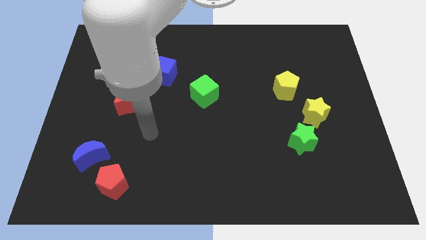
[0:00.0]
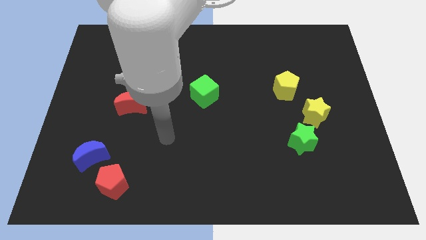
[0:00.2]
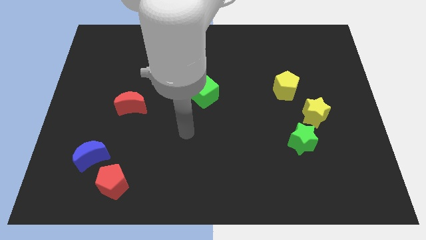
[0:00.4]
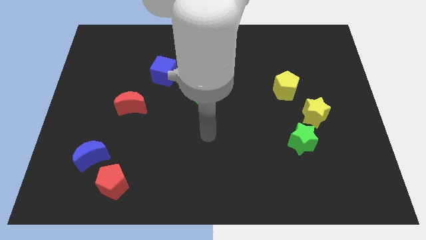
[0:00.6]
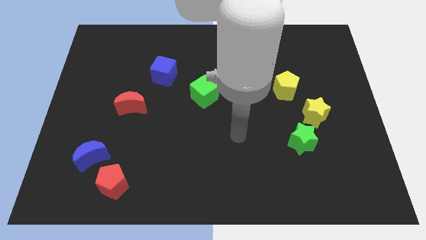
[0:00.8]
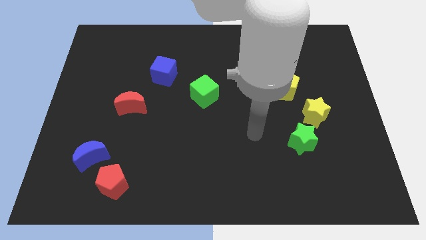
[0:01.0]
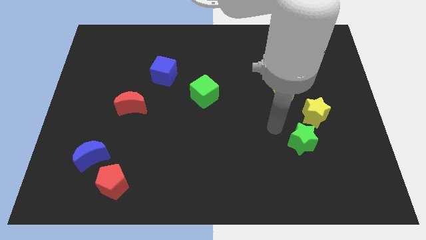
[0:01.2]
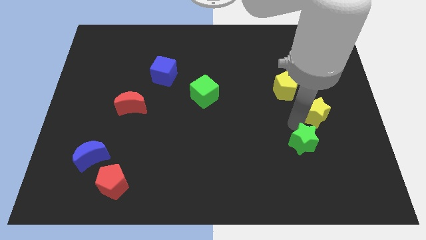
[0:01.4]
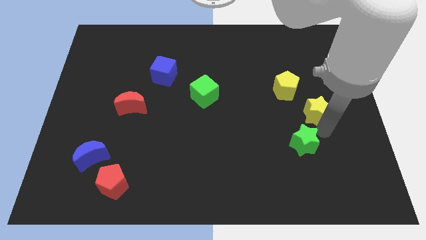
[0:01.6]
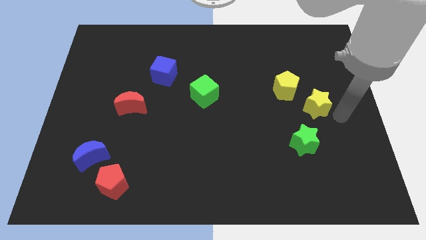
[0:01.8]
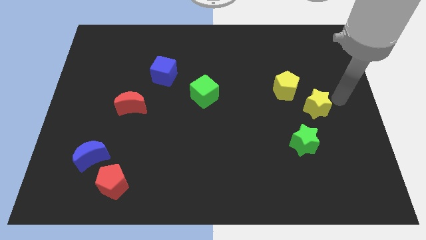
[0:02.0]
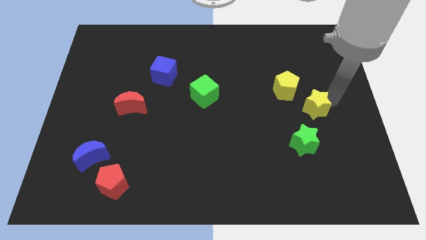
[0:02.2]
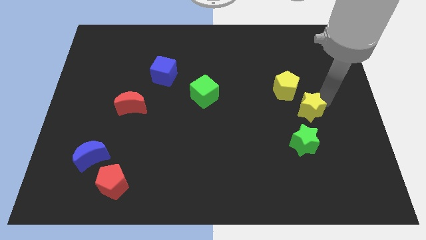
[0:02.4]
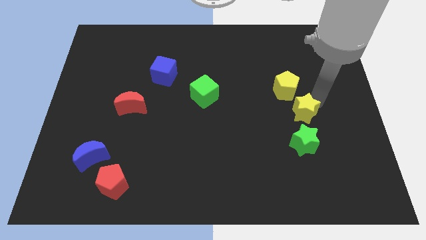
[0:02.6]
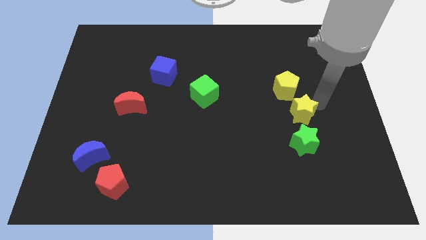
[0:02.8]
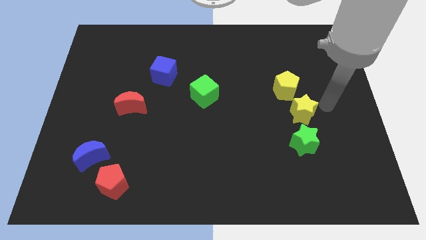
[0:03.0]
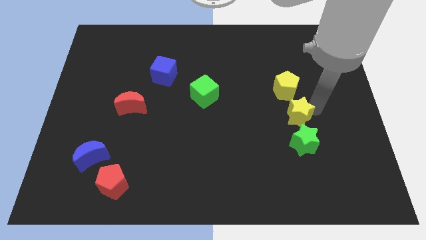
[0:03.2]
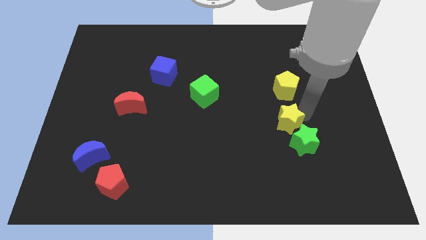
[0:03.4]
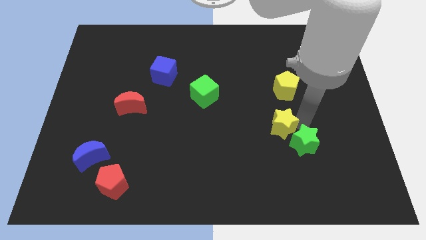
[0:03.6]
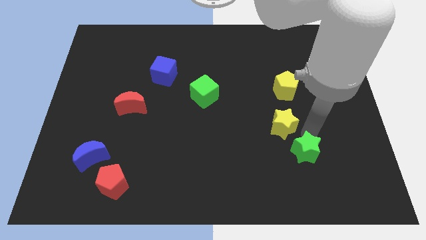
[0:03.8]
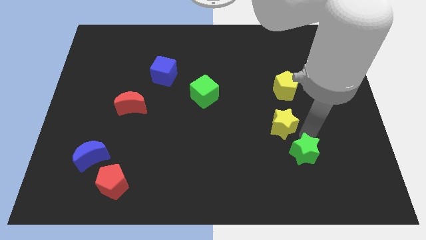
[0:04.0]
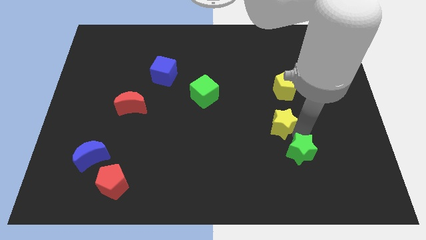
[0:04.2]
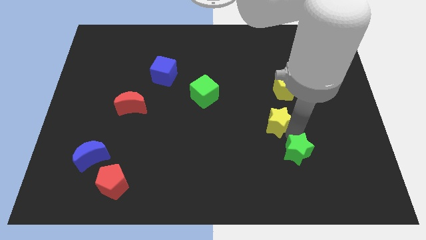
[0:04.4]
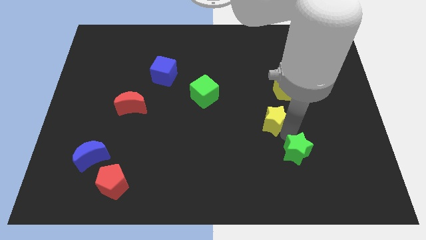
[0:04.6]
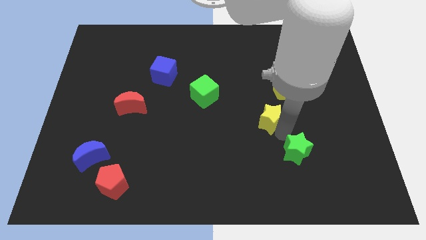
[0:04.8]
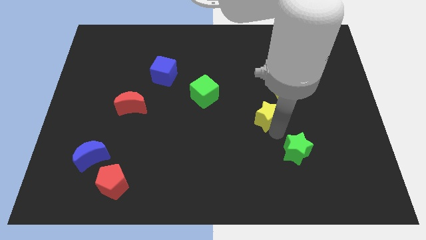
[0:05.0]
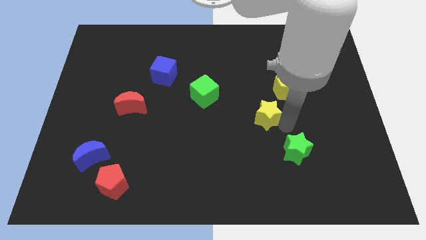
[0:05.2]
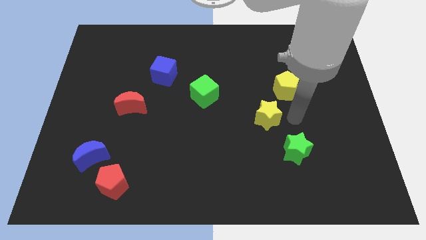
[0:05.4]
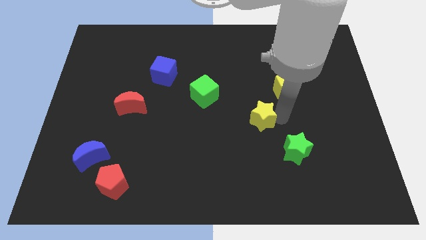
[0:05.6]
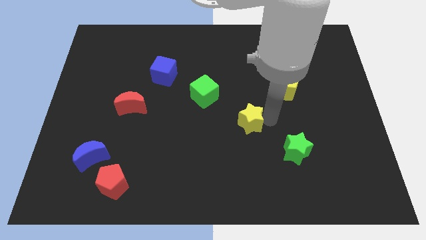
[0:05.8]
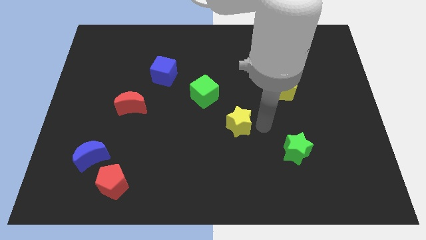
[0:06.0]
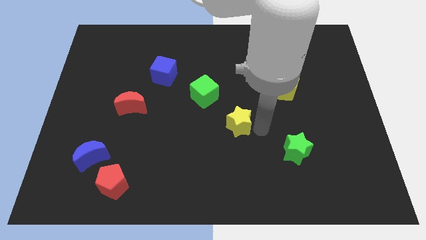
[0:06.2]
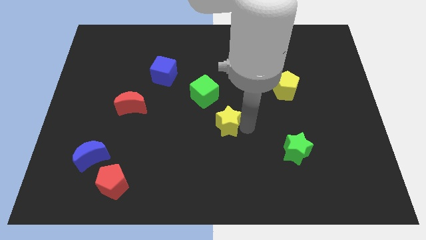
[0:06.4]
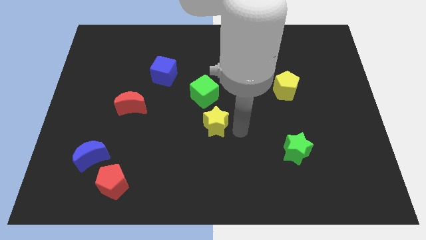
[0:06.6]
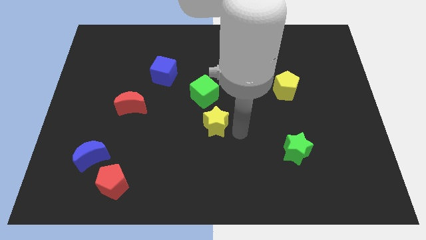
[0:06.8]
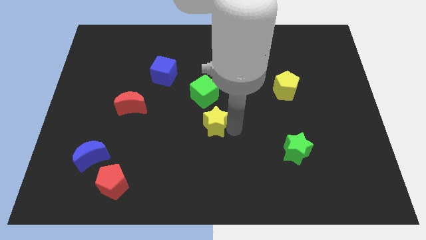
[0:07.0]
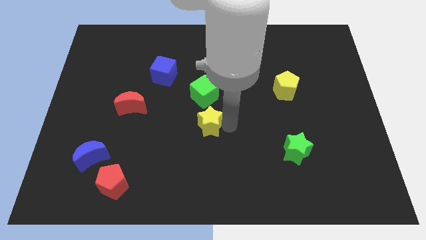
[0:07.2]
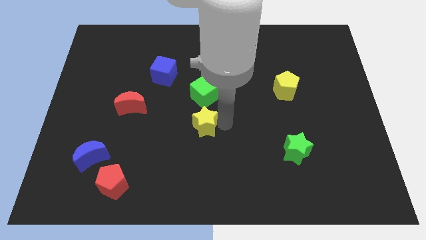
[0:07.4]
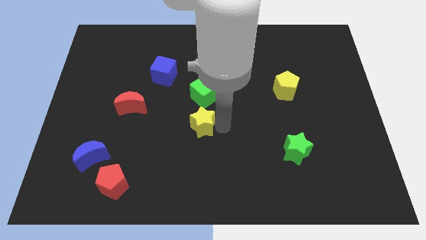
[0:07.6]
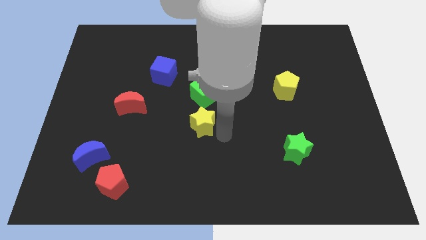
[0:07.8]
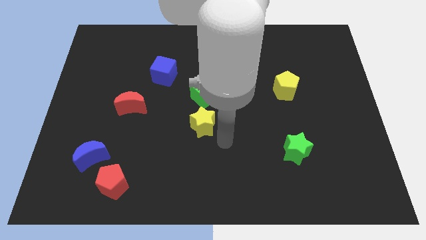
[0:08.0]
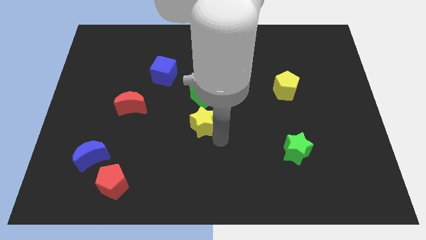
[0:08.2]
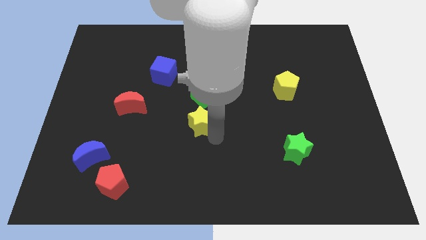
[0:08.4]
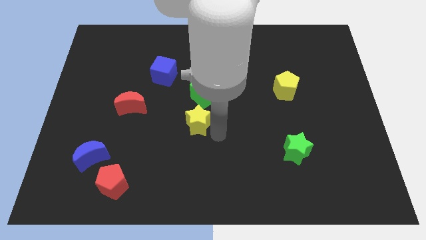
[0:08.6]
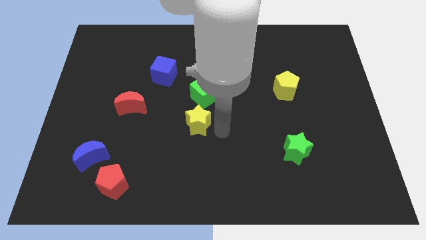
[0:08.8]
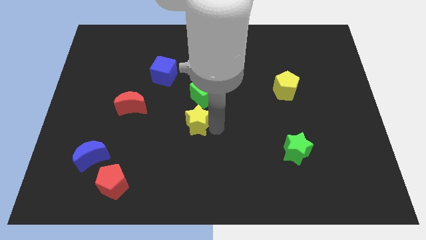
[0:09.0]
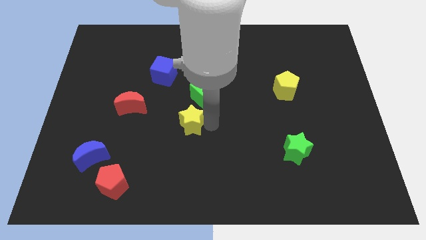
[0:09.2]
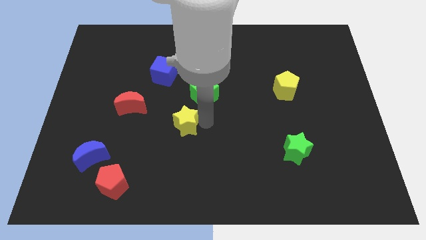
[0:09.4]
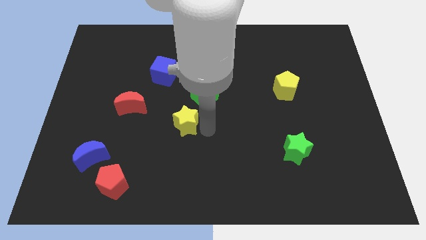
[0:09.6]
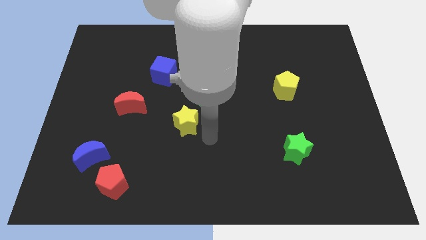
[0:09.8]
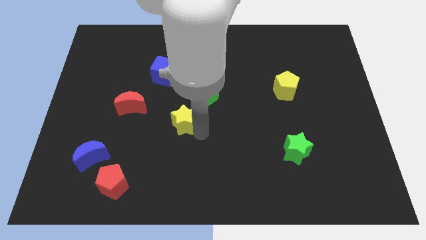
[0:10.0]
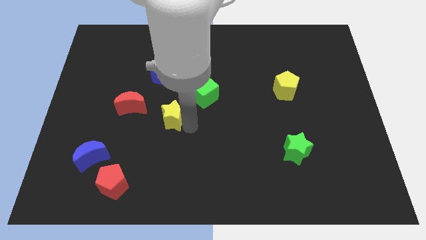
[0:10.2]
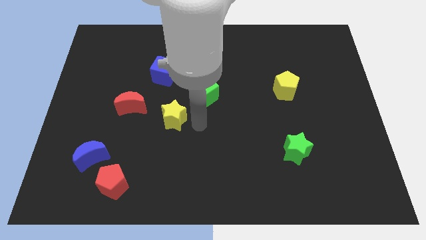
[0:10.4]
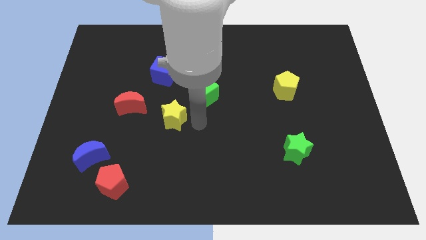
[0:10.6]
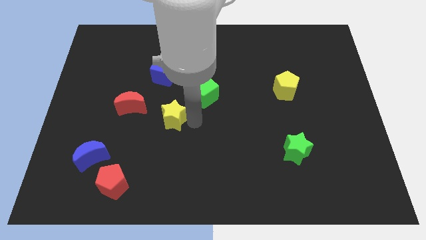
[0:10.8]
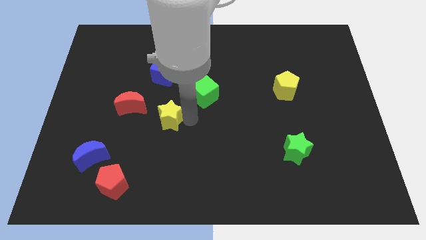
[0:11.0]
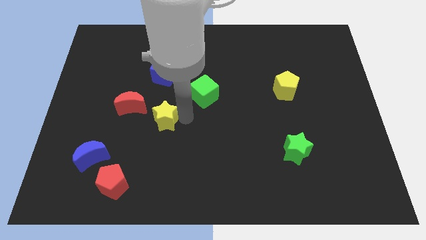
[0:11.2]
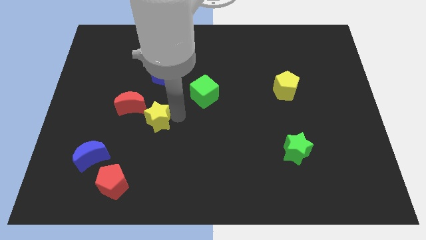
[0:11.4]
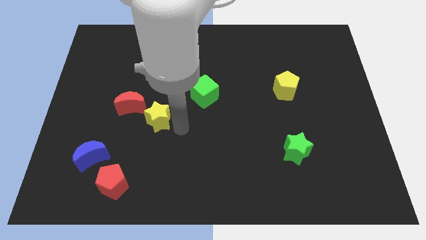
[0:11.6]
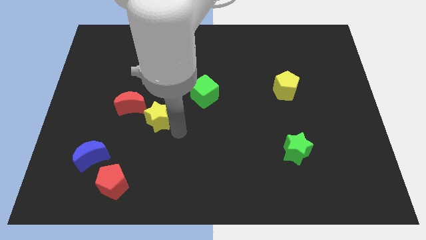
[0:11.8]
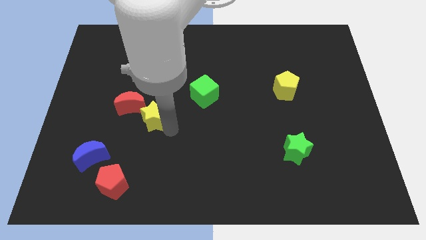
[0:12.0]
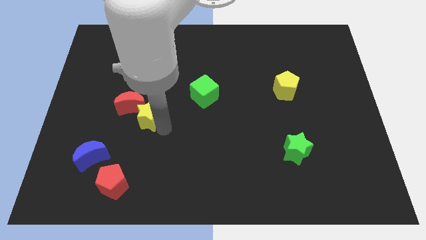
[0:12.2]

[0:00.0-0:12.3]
slide the yellow star close to the red moon

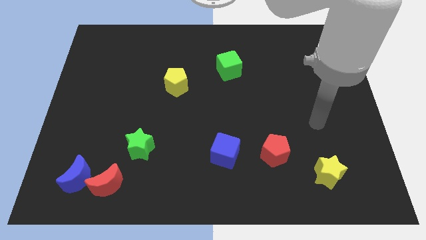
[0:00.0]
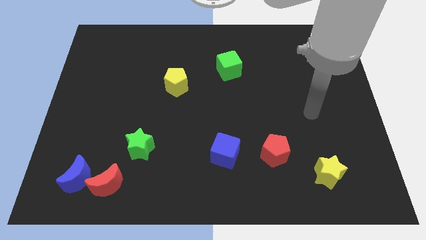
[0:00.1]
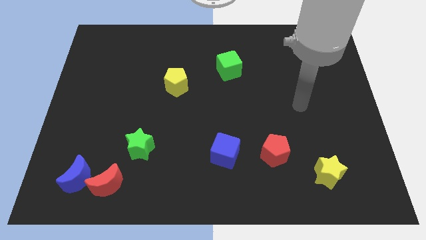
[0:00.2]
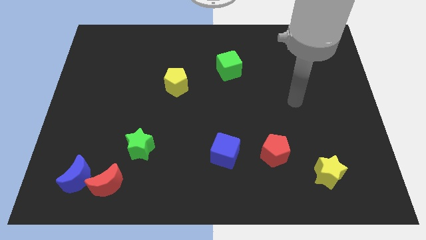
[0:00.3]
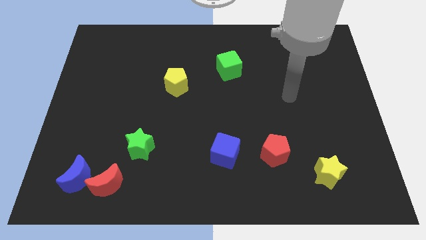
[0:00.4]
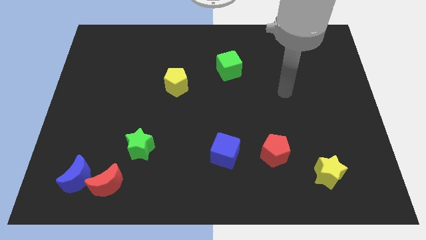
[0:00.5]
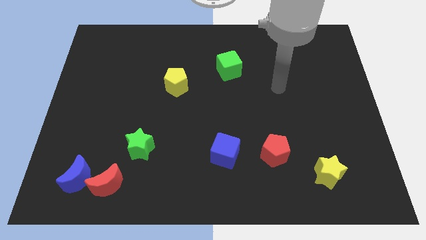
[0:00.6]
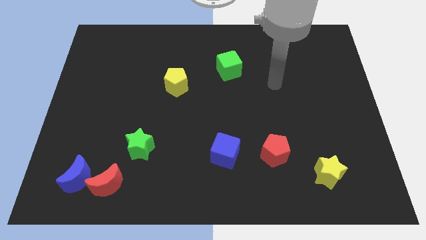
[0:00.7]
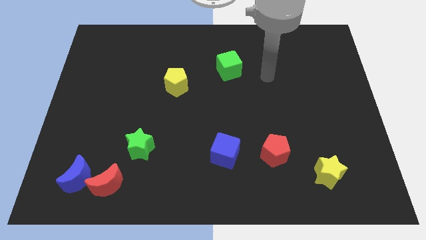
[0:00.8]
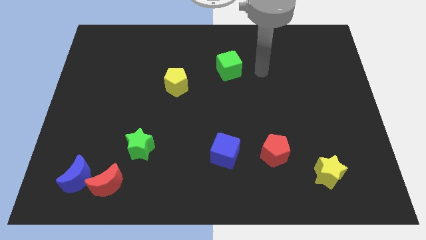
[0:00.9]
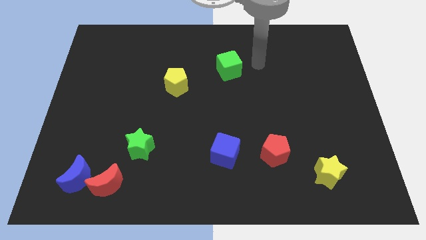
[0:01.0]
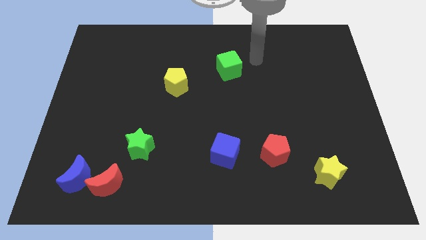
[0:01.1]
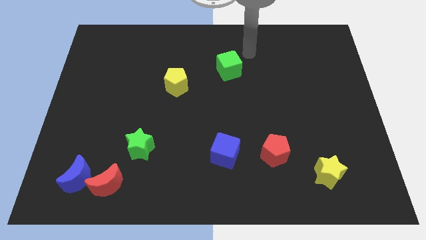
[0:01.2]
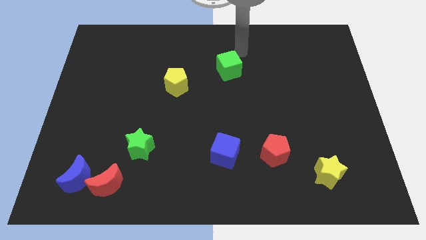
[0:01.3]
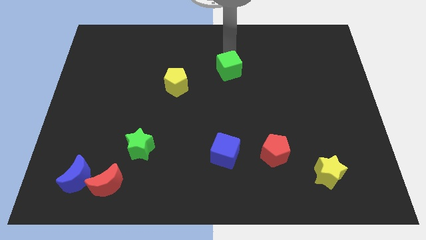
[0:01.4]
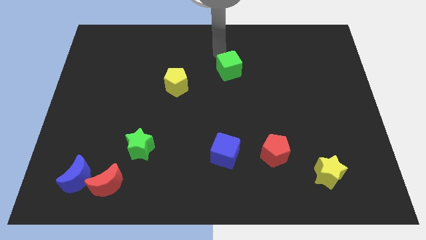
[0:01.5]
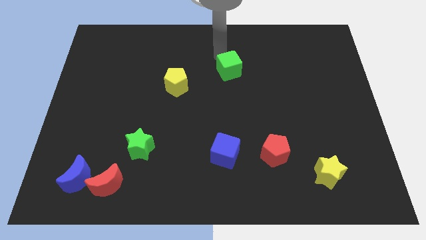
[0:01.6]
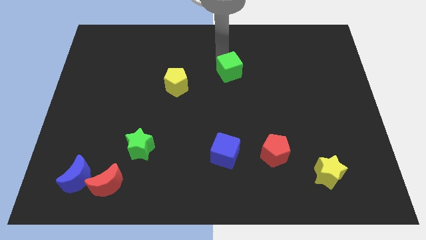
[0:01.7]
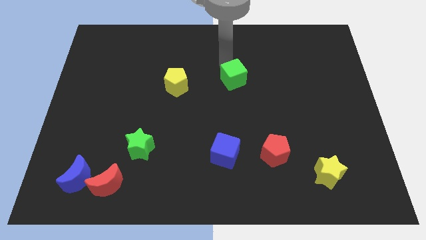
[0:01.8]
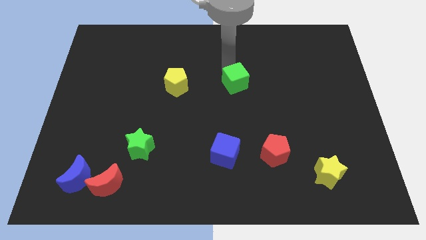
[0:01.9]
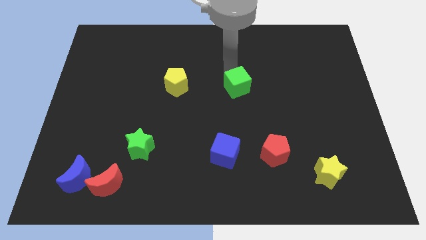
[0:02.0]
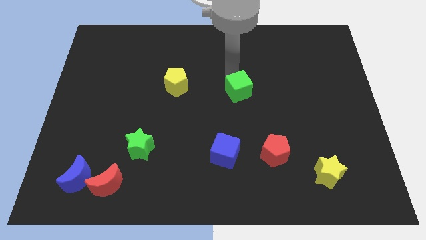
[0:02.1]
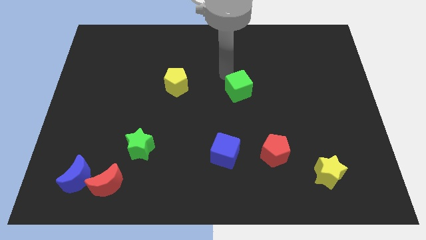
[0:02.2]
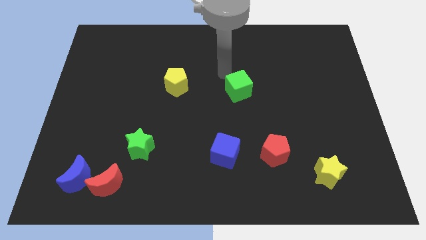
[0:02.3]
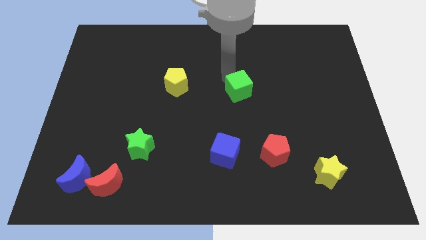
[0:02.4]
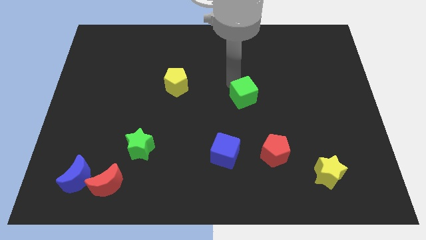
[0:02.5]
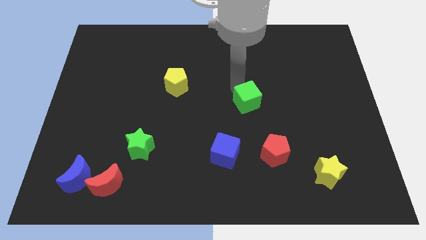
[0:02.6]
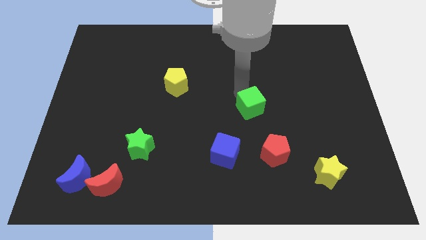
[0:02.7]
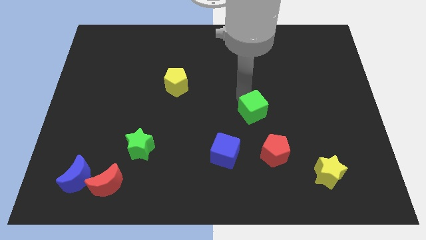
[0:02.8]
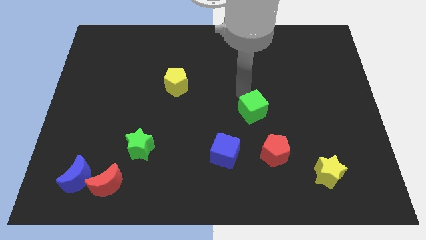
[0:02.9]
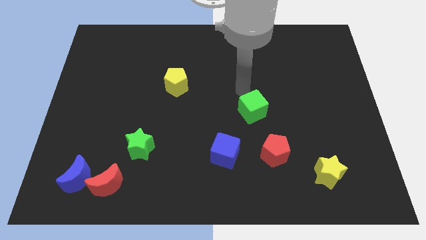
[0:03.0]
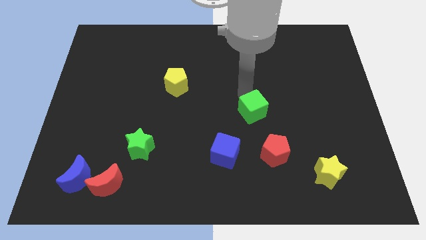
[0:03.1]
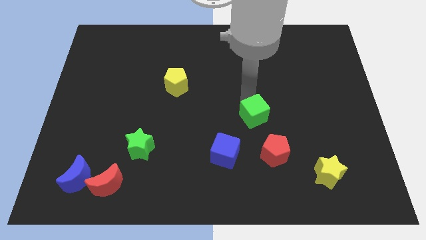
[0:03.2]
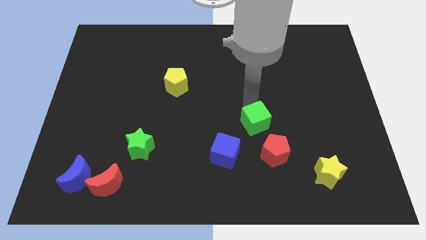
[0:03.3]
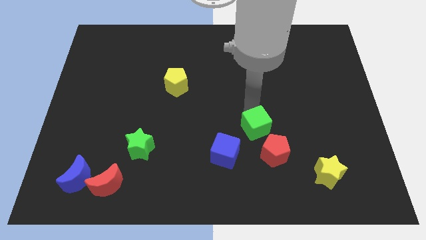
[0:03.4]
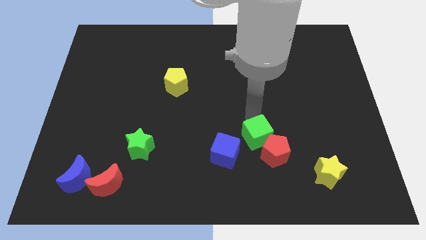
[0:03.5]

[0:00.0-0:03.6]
slide the green cube next to the red pentagon
